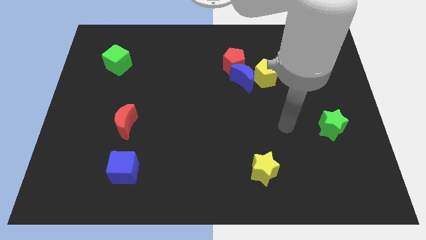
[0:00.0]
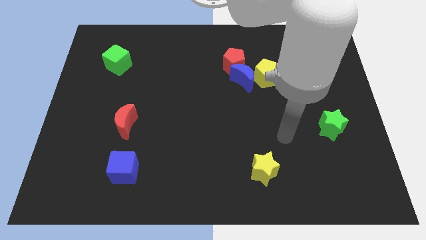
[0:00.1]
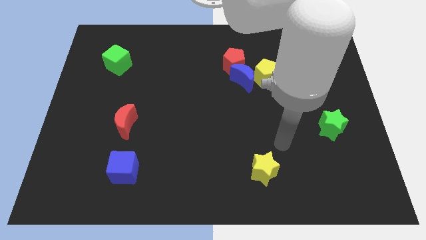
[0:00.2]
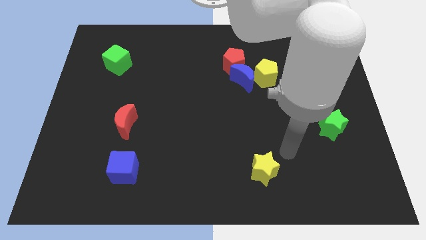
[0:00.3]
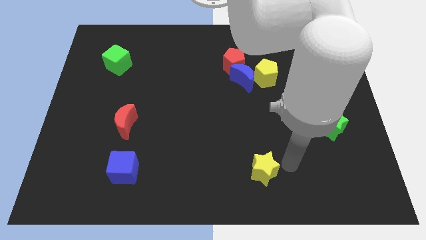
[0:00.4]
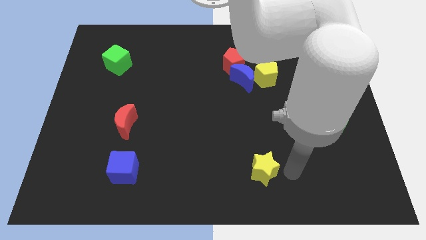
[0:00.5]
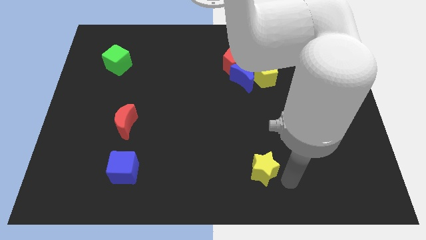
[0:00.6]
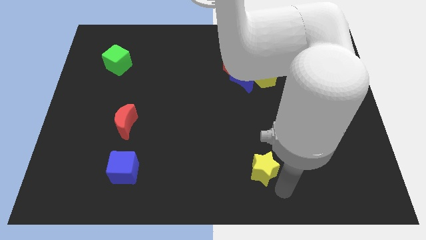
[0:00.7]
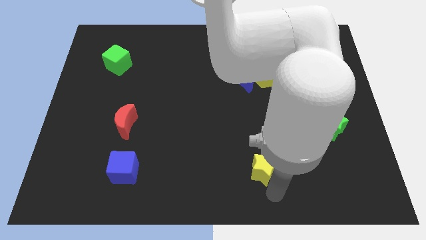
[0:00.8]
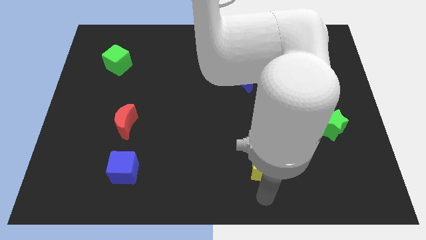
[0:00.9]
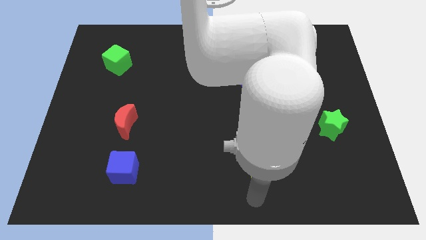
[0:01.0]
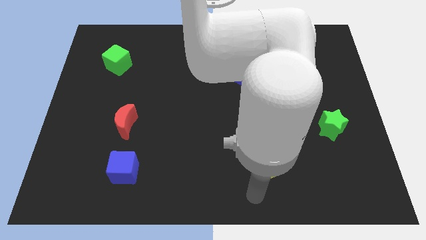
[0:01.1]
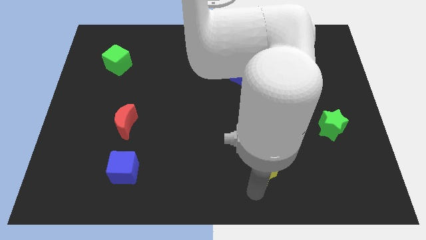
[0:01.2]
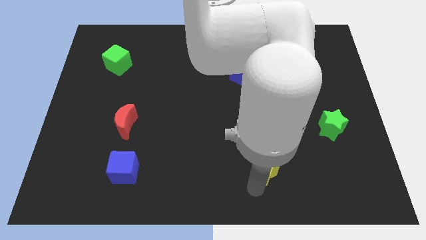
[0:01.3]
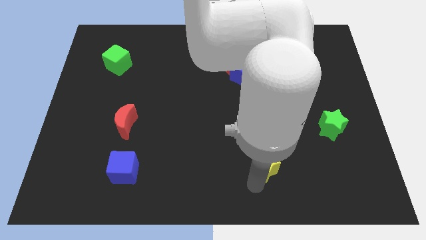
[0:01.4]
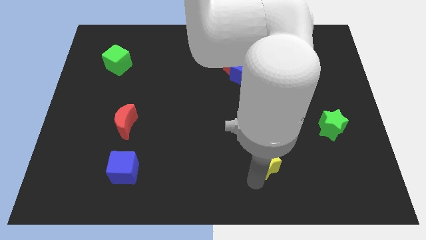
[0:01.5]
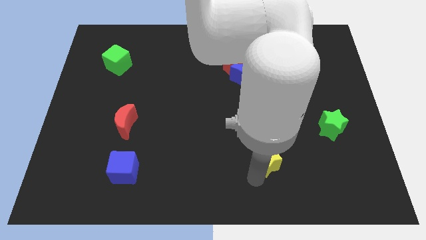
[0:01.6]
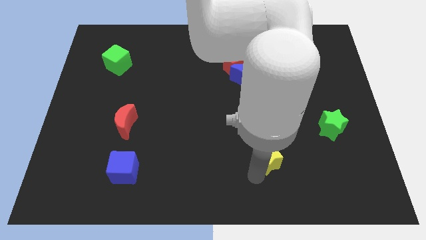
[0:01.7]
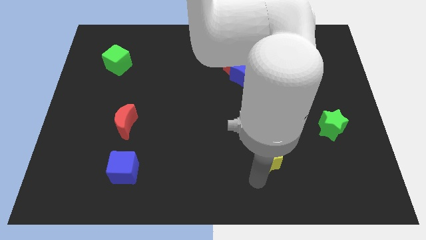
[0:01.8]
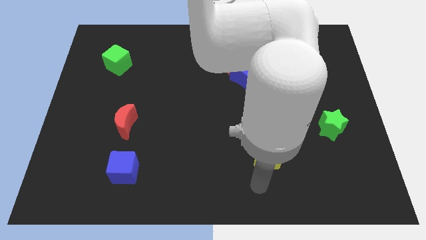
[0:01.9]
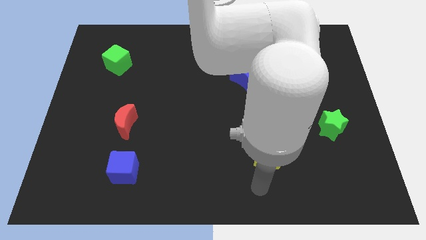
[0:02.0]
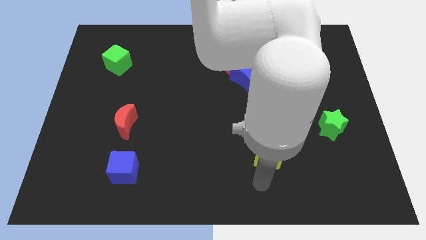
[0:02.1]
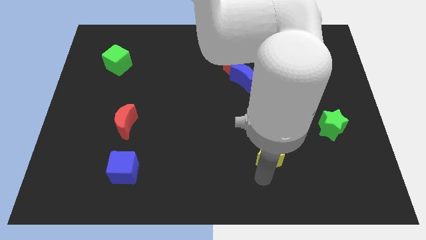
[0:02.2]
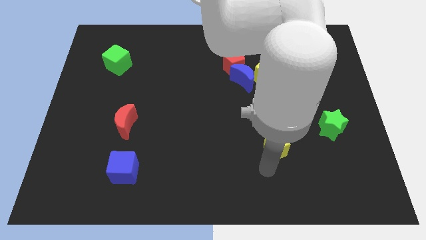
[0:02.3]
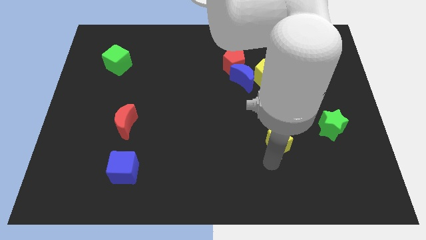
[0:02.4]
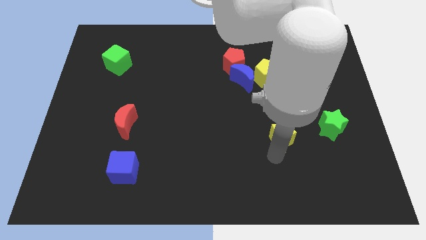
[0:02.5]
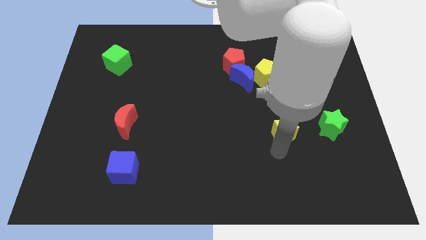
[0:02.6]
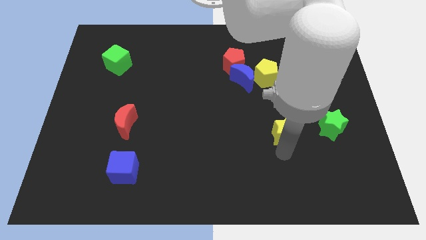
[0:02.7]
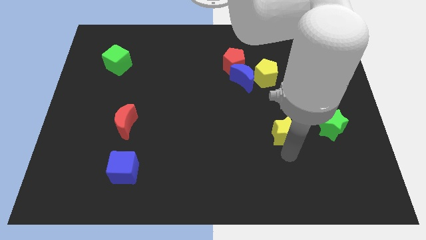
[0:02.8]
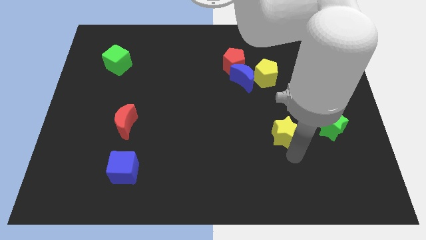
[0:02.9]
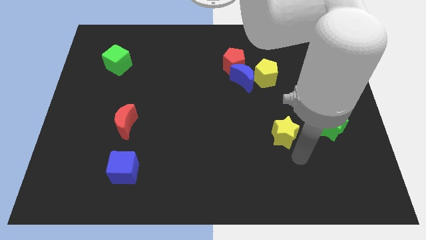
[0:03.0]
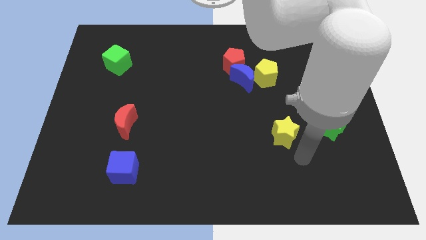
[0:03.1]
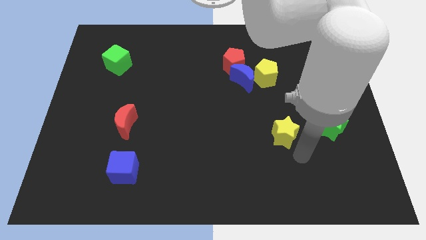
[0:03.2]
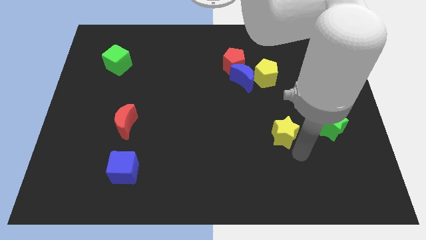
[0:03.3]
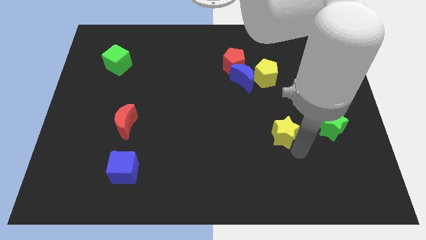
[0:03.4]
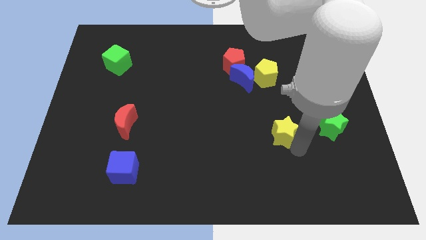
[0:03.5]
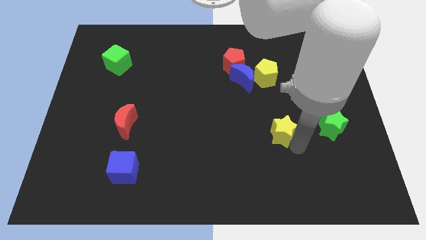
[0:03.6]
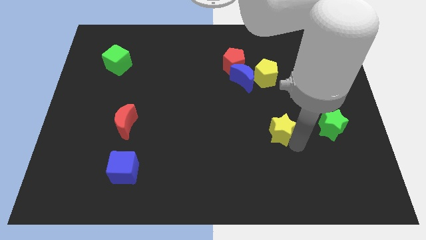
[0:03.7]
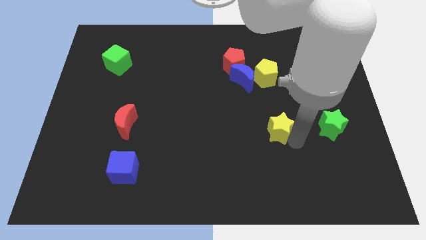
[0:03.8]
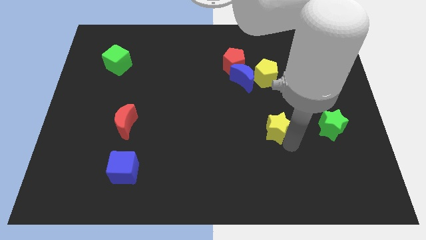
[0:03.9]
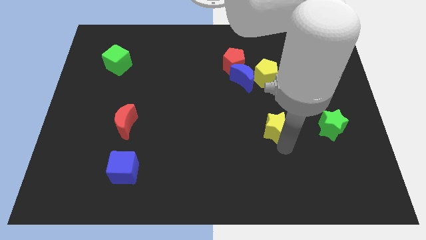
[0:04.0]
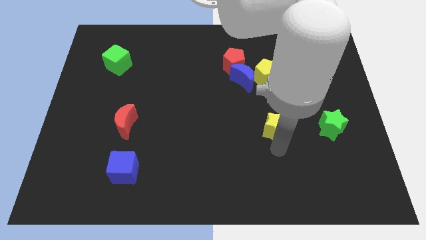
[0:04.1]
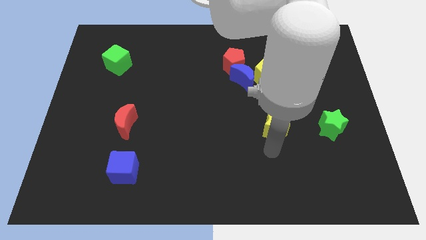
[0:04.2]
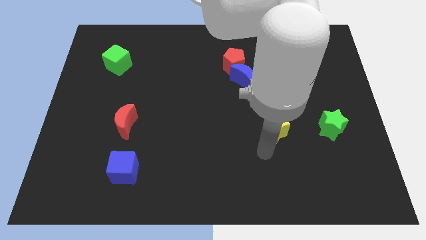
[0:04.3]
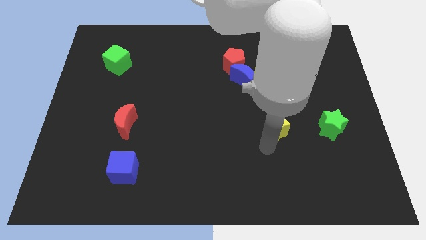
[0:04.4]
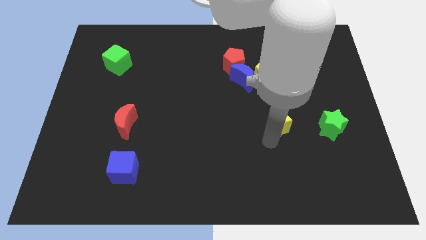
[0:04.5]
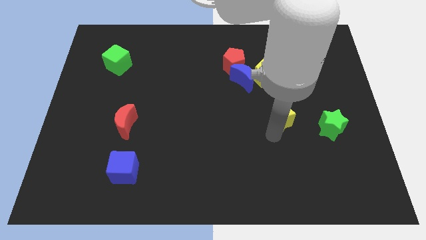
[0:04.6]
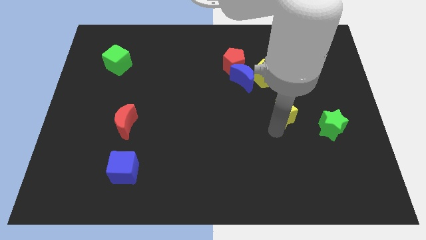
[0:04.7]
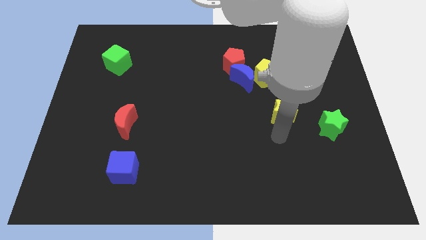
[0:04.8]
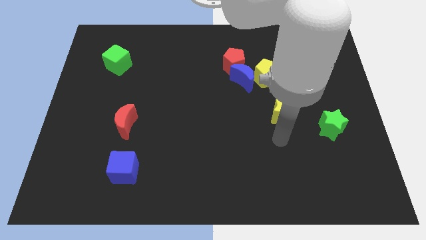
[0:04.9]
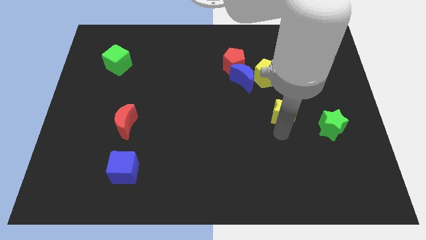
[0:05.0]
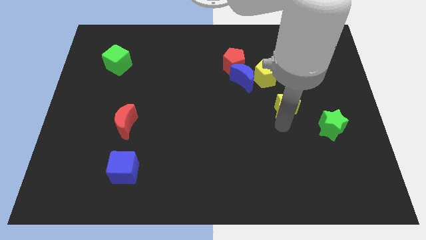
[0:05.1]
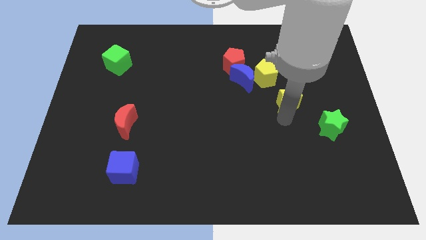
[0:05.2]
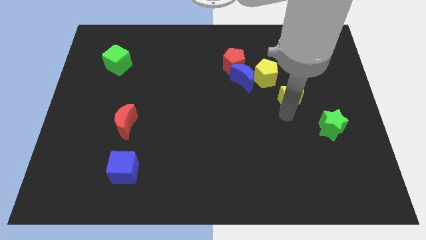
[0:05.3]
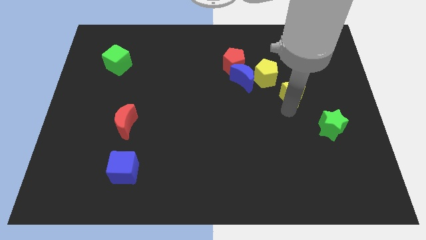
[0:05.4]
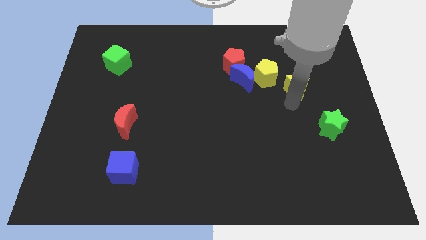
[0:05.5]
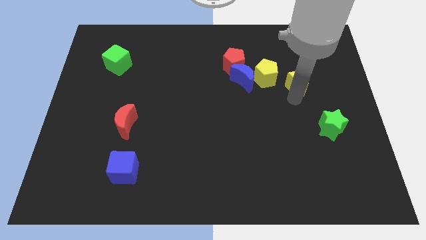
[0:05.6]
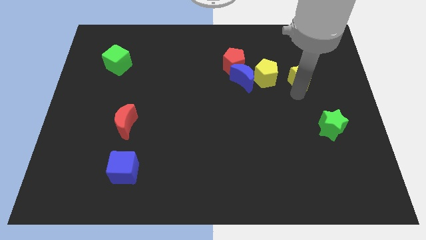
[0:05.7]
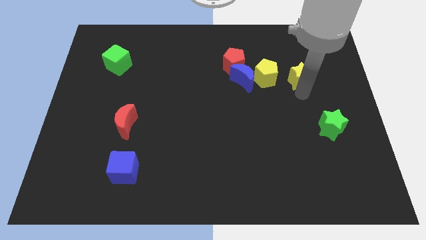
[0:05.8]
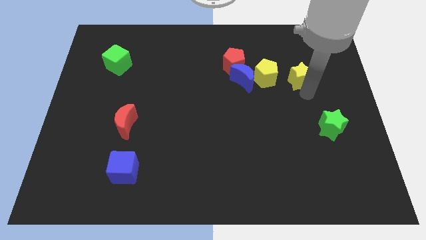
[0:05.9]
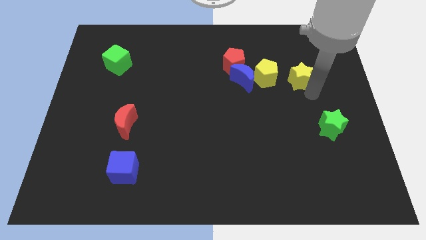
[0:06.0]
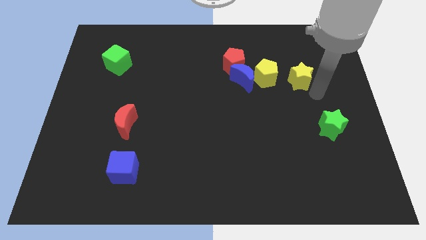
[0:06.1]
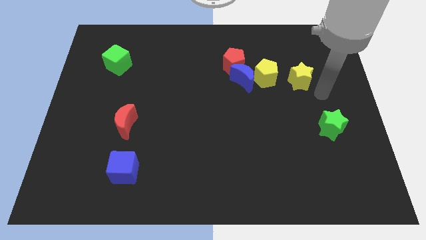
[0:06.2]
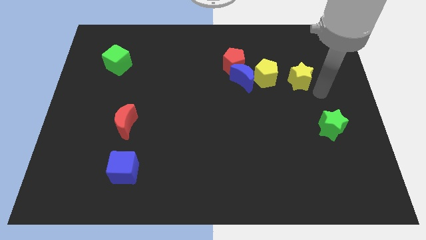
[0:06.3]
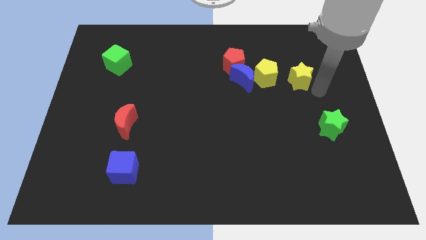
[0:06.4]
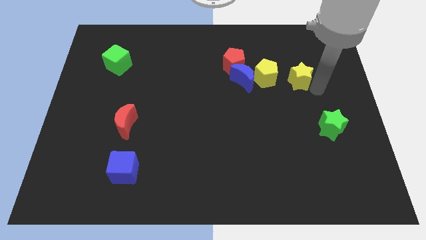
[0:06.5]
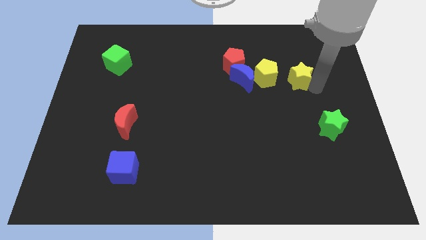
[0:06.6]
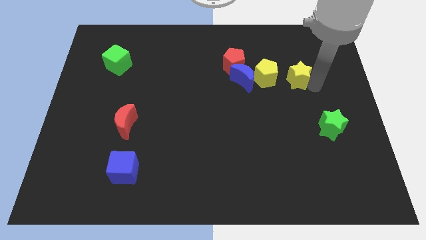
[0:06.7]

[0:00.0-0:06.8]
push the yellow star upwards

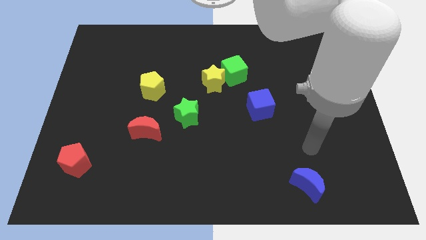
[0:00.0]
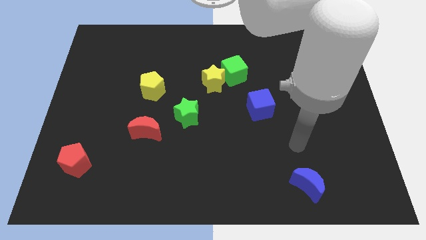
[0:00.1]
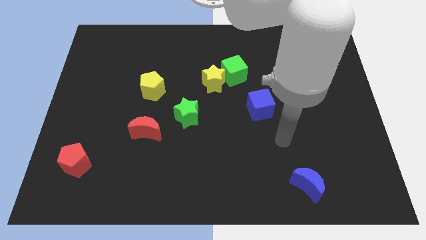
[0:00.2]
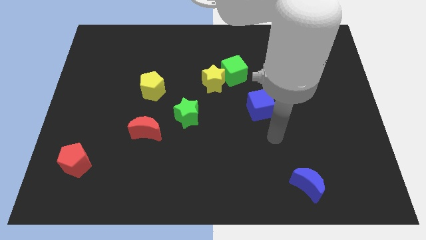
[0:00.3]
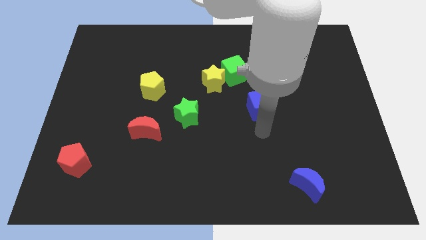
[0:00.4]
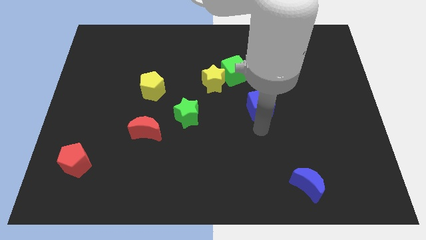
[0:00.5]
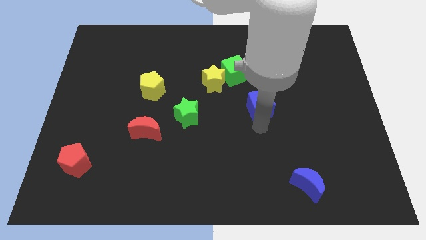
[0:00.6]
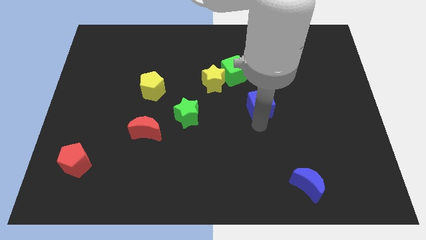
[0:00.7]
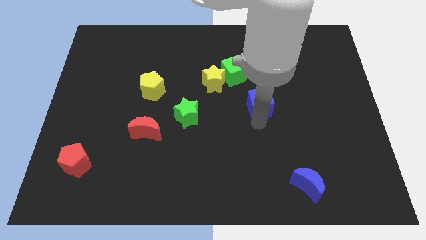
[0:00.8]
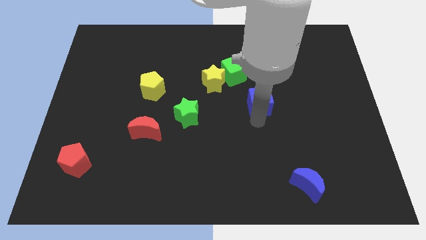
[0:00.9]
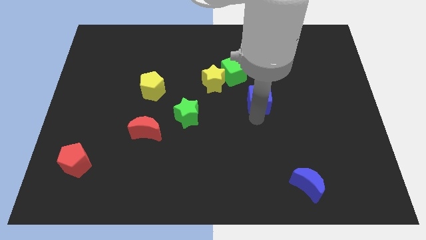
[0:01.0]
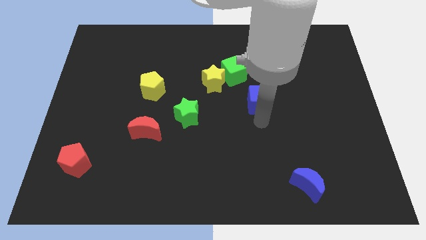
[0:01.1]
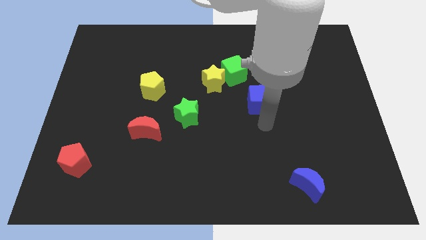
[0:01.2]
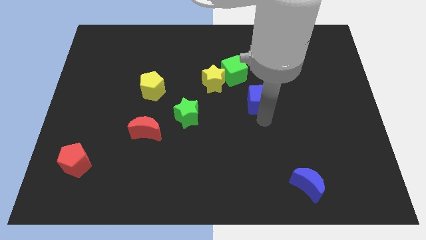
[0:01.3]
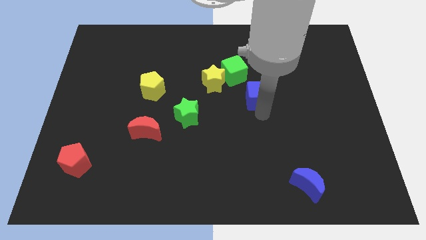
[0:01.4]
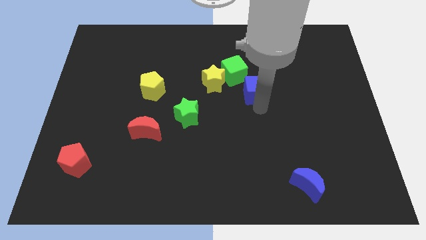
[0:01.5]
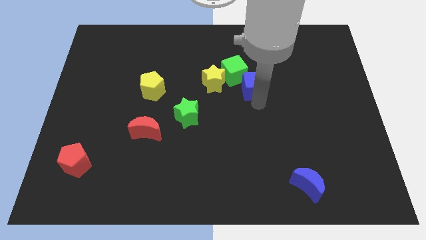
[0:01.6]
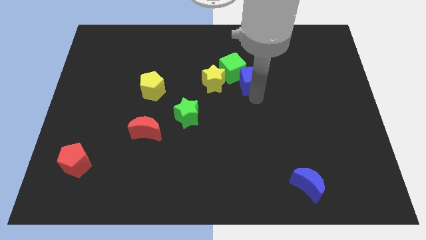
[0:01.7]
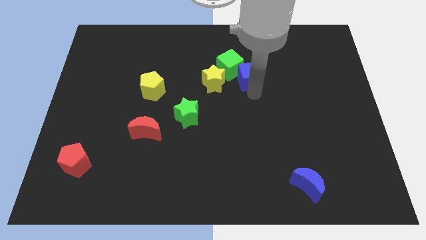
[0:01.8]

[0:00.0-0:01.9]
slightly slide the blue cube up and left diagonally
